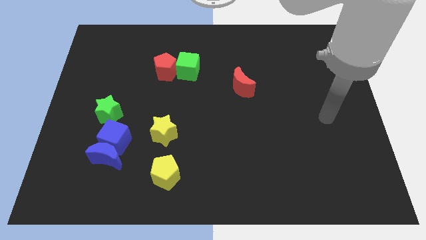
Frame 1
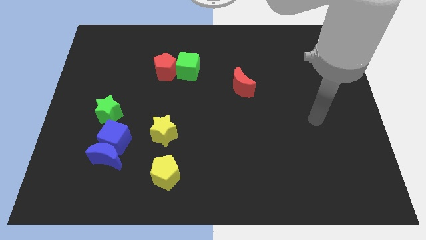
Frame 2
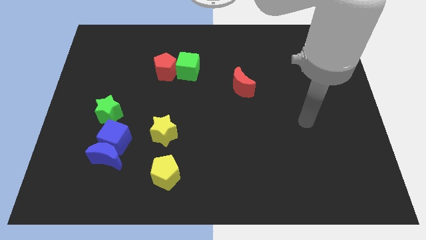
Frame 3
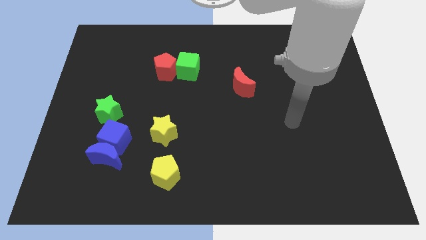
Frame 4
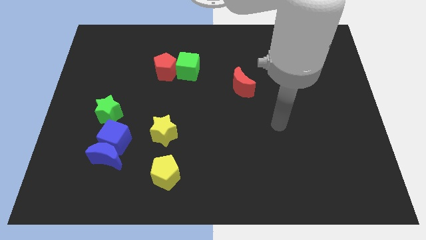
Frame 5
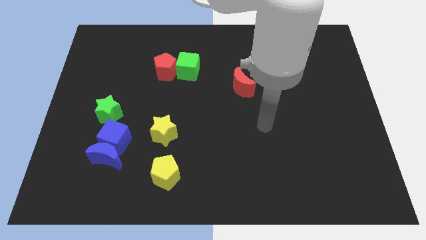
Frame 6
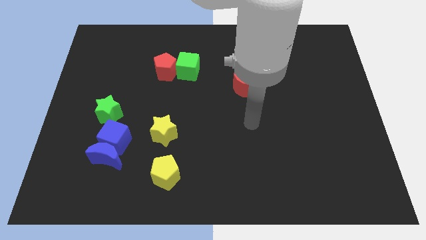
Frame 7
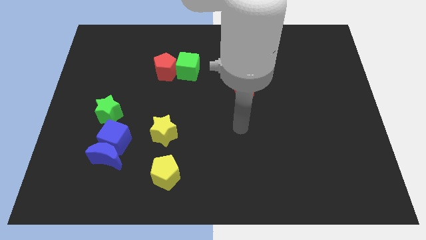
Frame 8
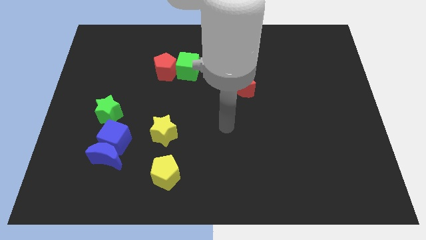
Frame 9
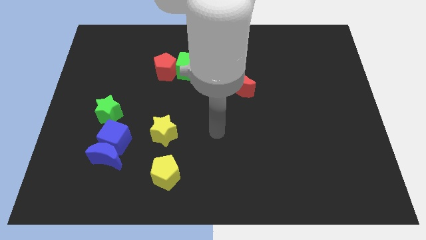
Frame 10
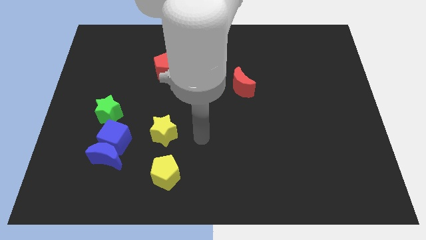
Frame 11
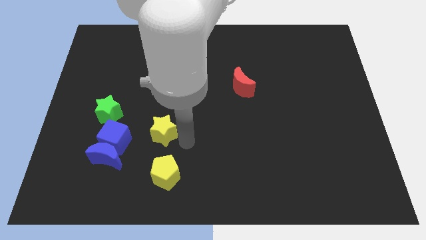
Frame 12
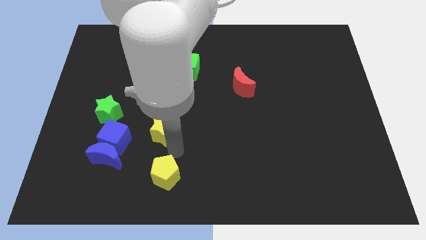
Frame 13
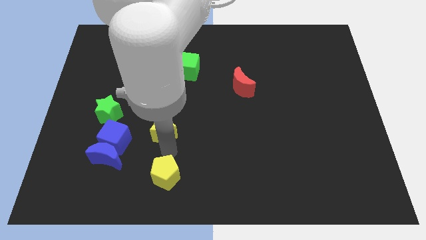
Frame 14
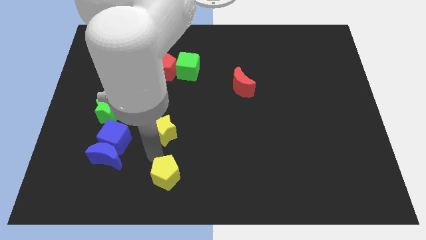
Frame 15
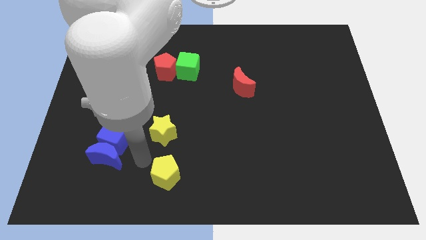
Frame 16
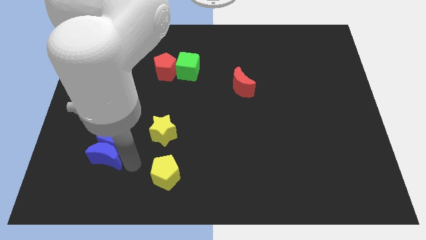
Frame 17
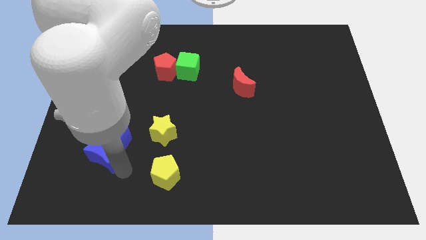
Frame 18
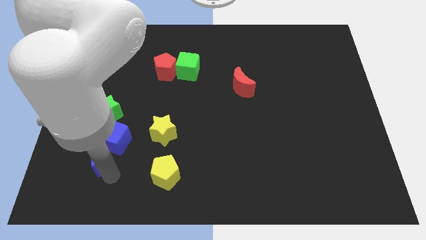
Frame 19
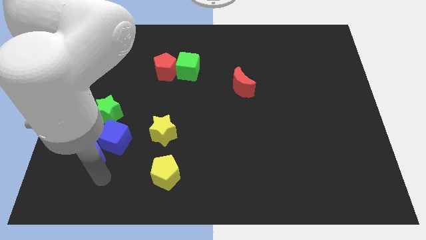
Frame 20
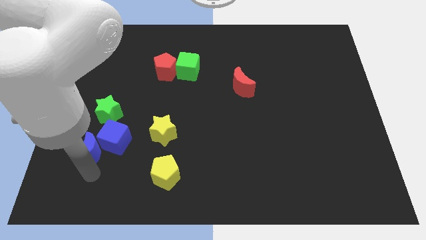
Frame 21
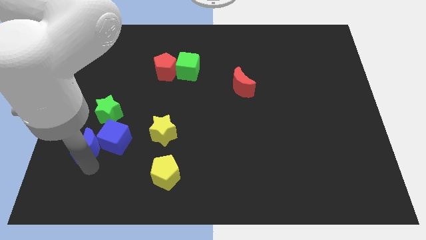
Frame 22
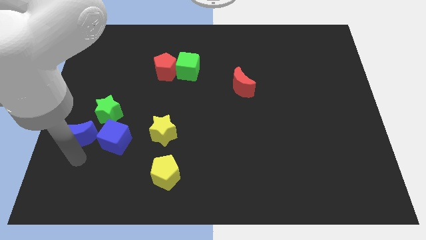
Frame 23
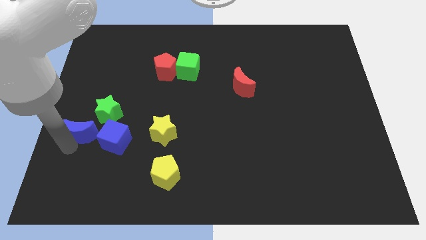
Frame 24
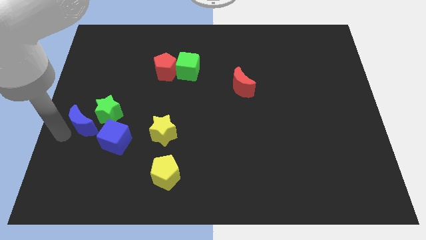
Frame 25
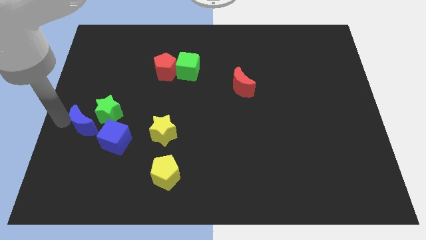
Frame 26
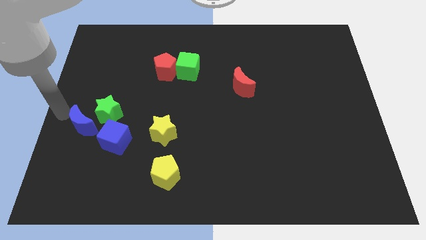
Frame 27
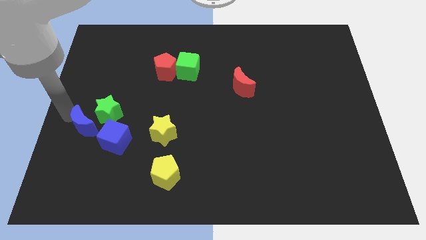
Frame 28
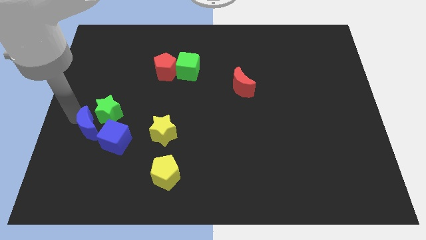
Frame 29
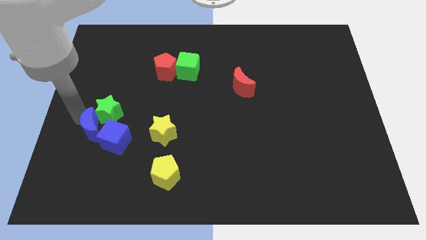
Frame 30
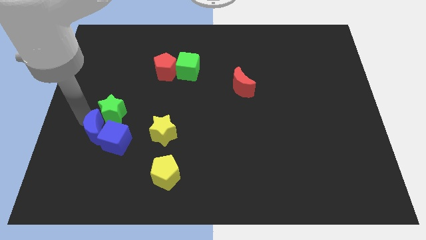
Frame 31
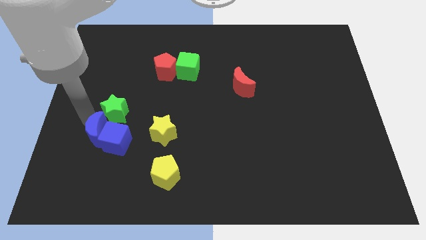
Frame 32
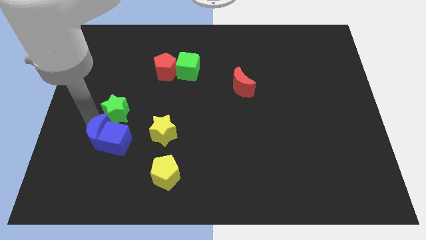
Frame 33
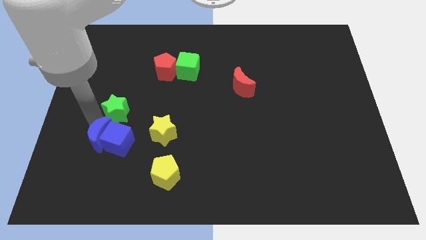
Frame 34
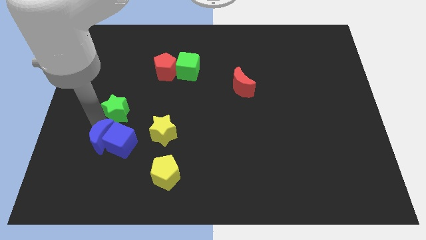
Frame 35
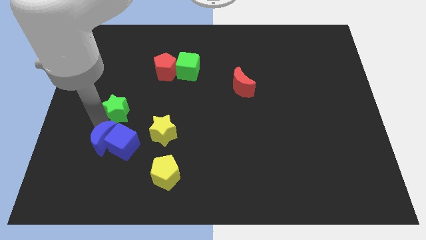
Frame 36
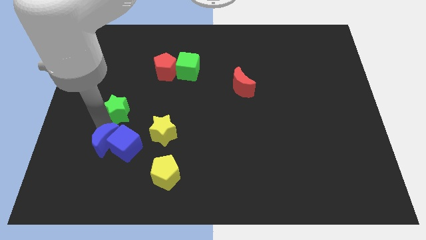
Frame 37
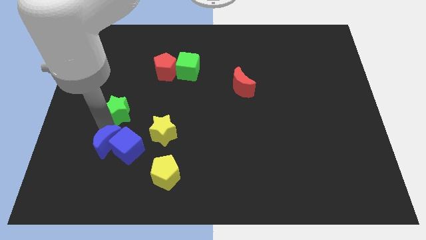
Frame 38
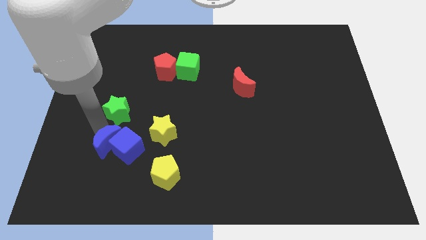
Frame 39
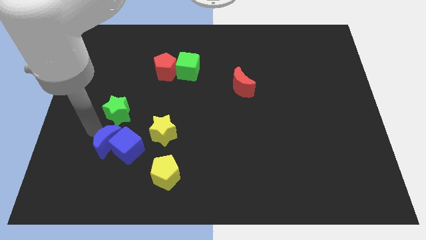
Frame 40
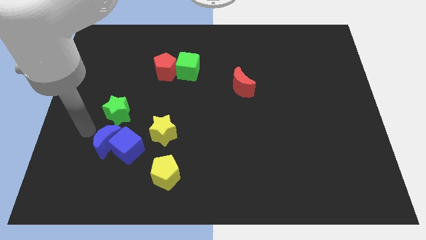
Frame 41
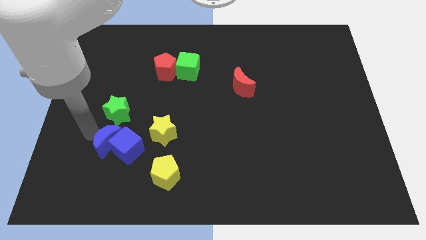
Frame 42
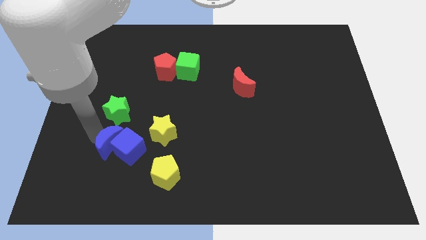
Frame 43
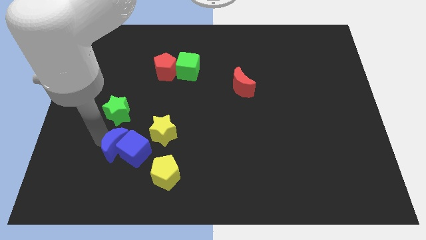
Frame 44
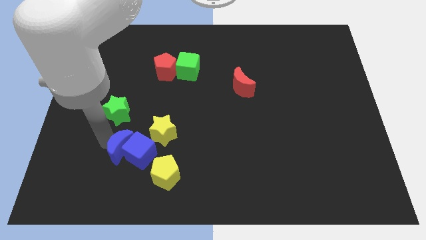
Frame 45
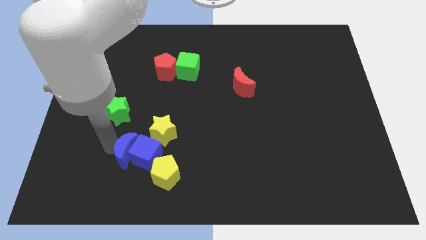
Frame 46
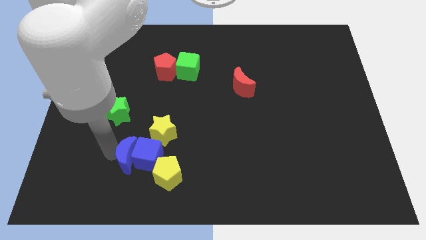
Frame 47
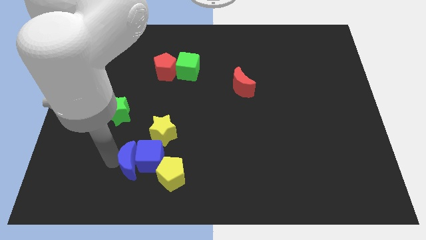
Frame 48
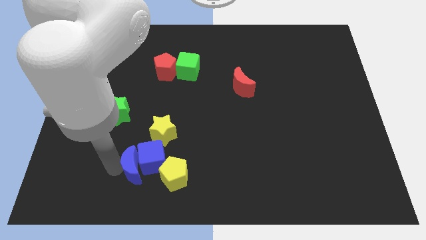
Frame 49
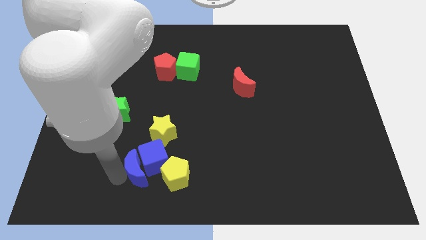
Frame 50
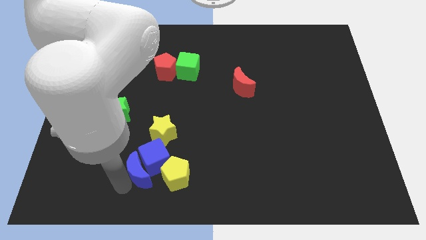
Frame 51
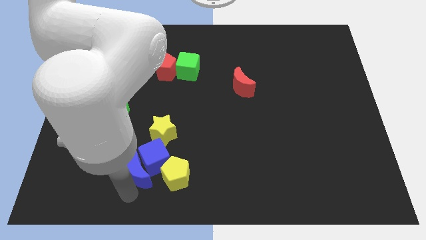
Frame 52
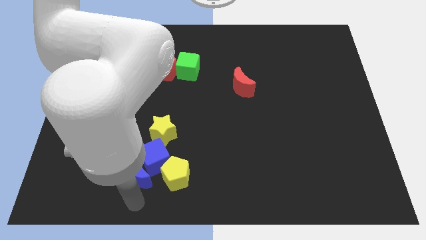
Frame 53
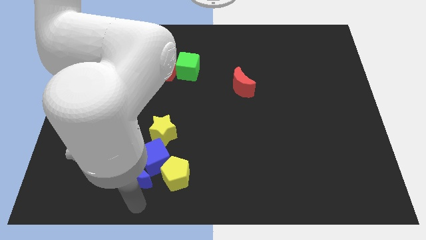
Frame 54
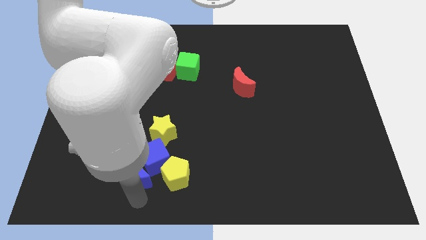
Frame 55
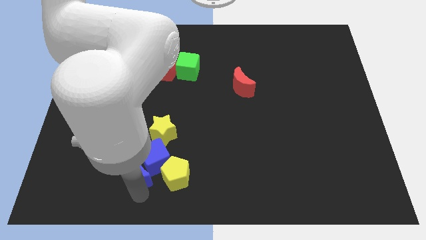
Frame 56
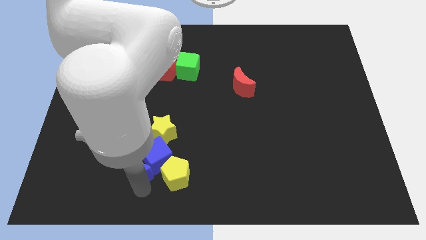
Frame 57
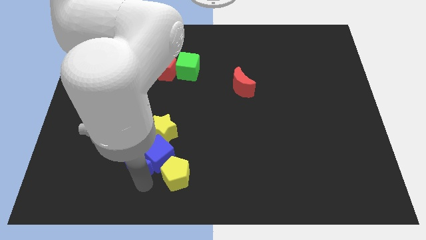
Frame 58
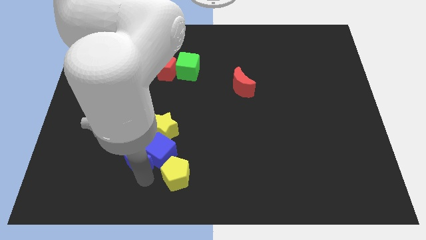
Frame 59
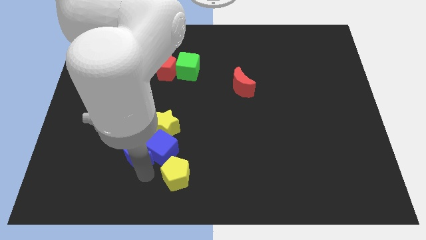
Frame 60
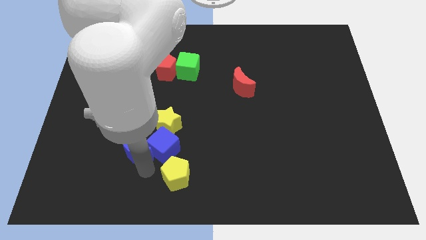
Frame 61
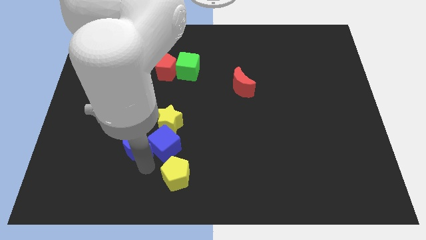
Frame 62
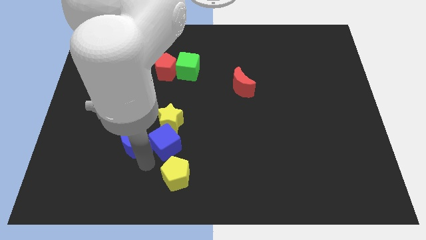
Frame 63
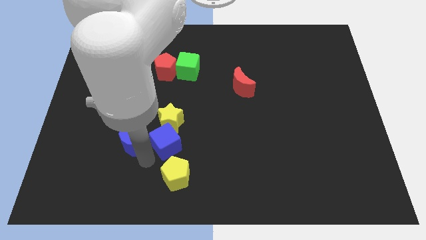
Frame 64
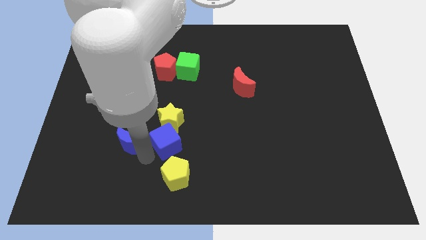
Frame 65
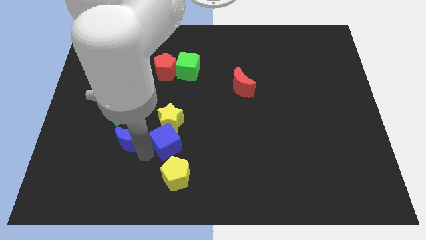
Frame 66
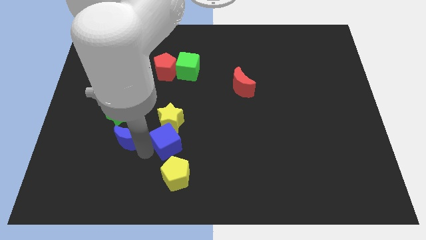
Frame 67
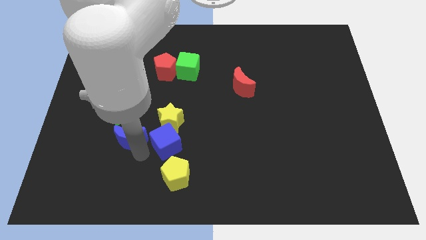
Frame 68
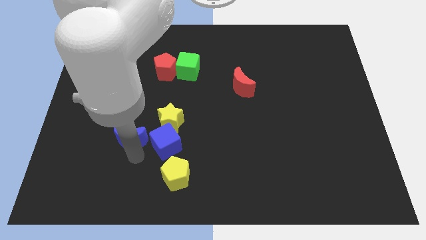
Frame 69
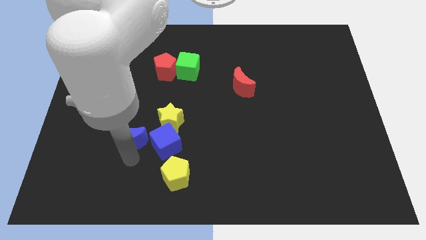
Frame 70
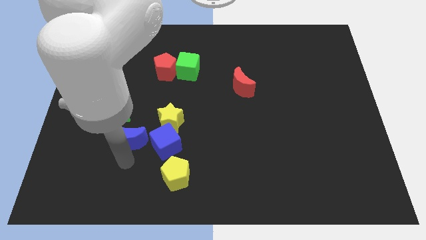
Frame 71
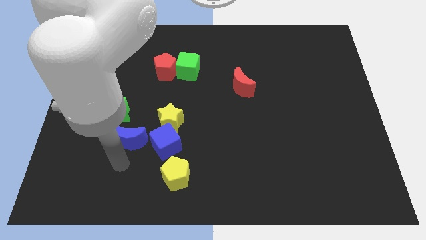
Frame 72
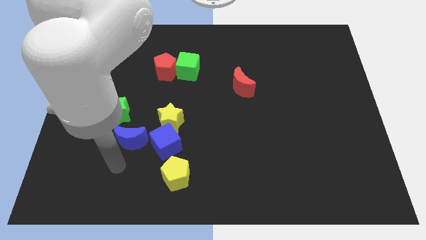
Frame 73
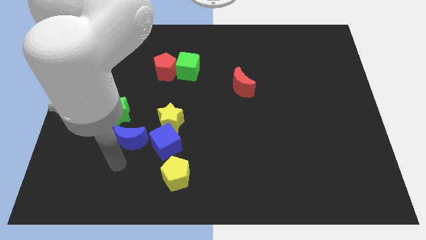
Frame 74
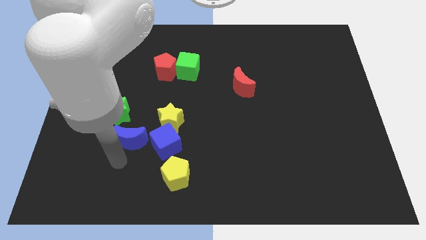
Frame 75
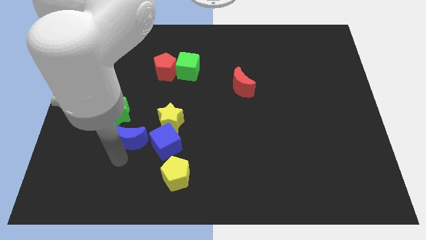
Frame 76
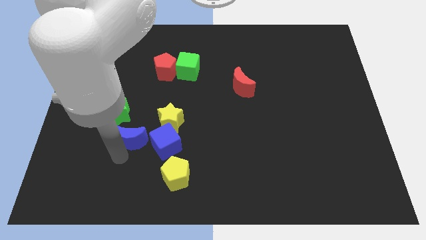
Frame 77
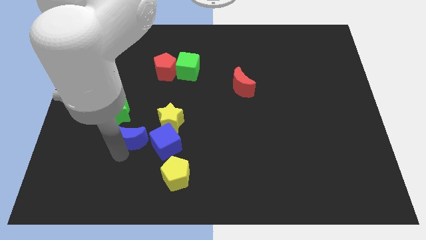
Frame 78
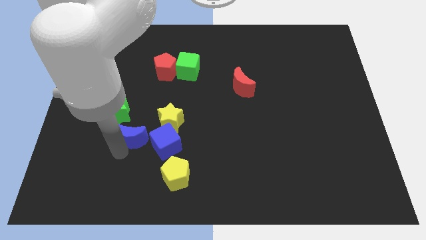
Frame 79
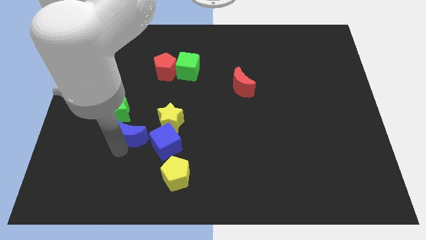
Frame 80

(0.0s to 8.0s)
slide the blue moon upwards and right diagonally somewhat
